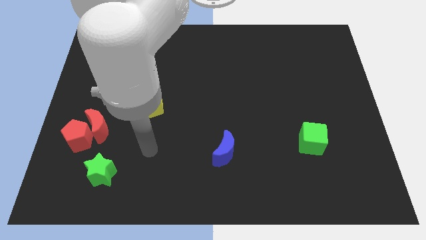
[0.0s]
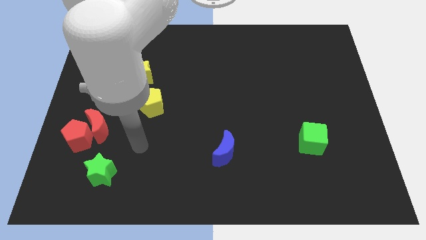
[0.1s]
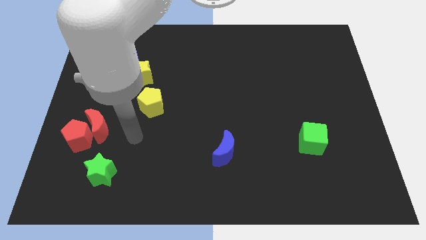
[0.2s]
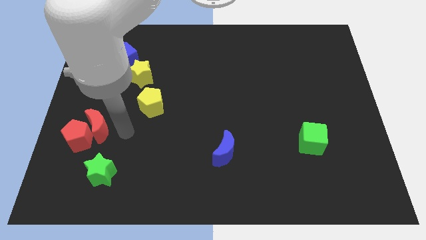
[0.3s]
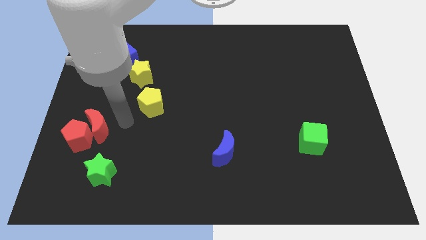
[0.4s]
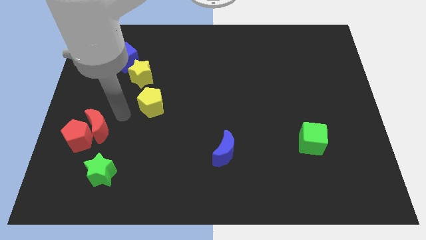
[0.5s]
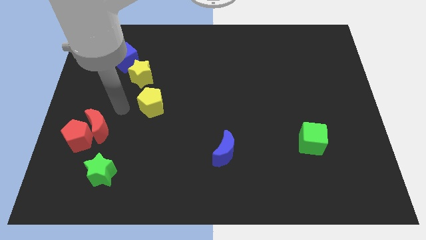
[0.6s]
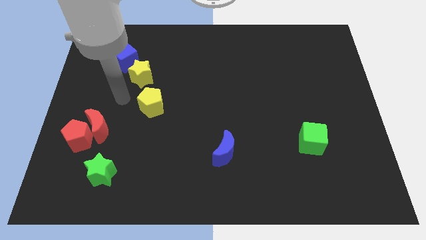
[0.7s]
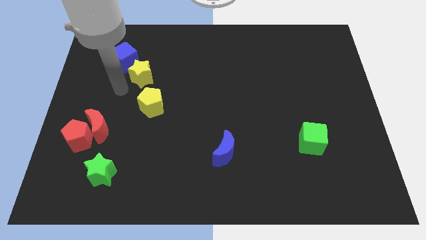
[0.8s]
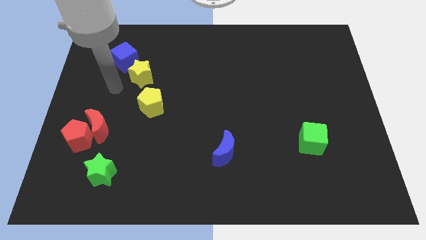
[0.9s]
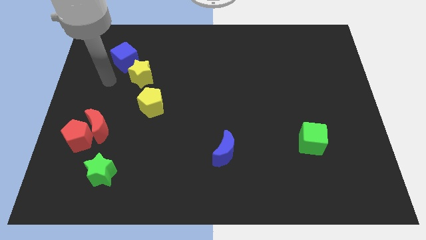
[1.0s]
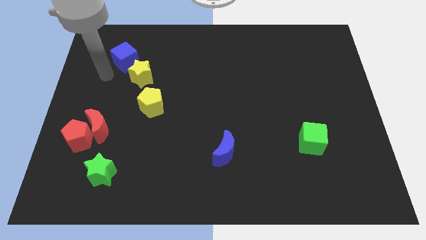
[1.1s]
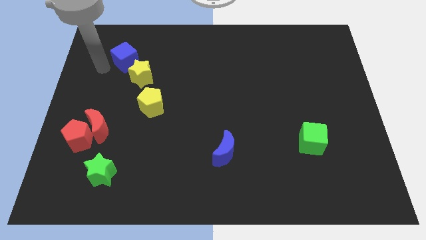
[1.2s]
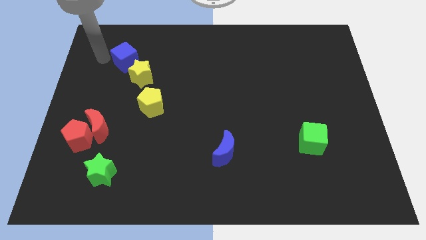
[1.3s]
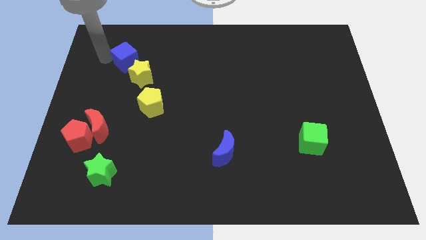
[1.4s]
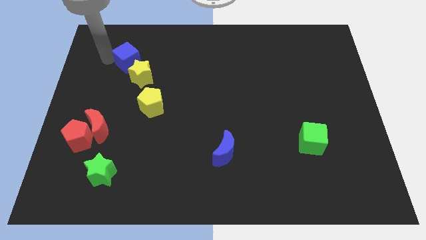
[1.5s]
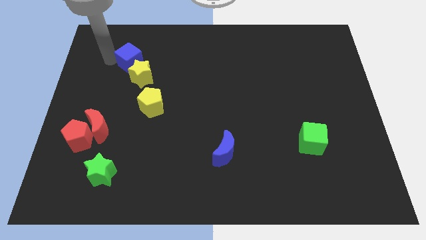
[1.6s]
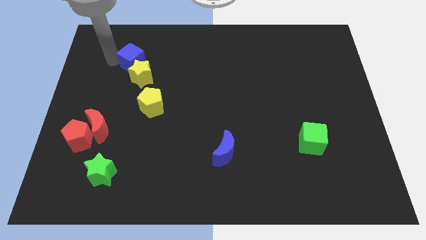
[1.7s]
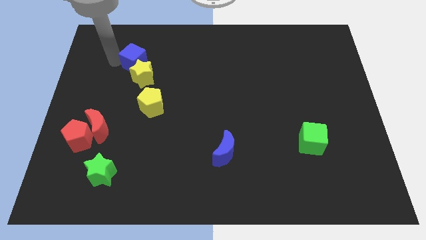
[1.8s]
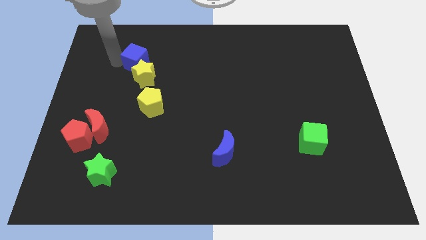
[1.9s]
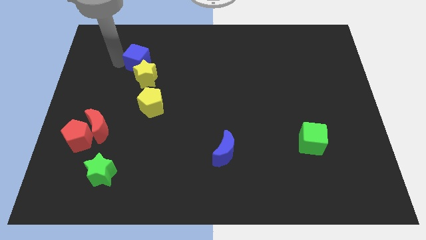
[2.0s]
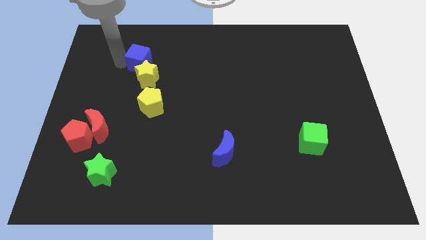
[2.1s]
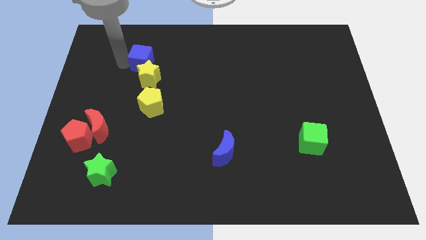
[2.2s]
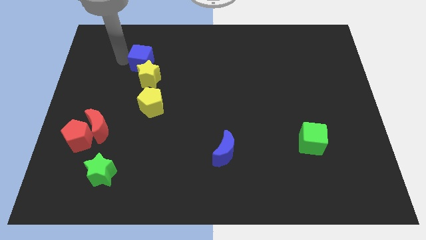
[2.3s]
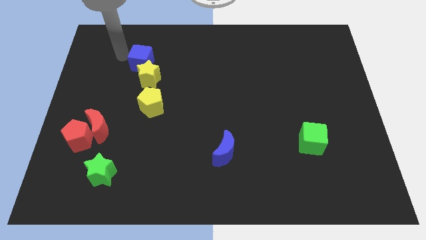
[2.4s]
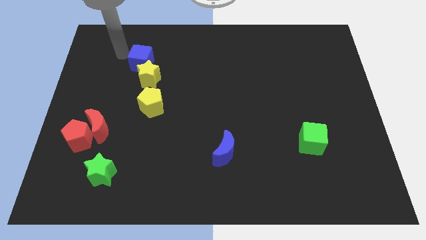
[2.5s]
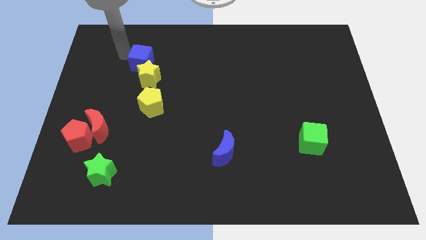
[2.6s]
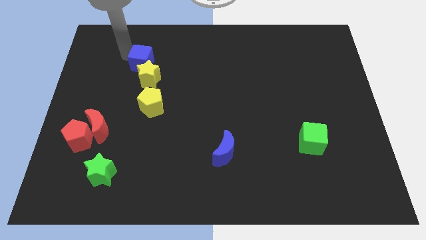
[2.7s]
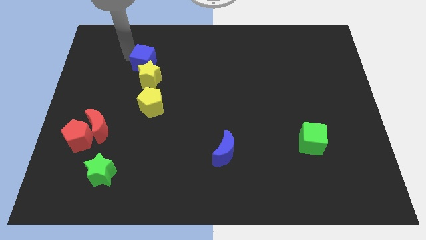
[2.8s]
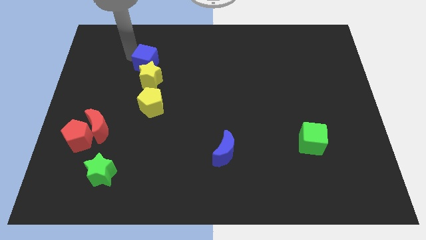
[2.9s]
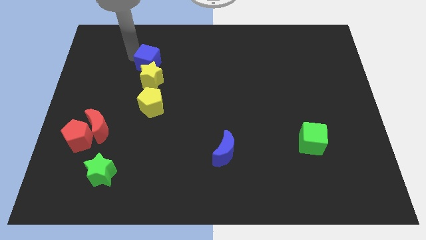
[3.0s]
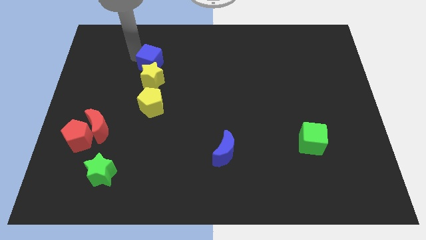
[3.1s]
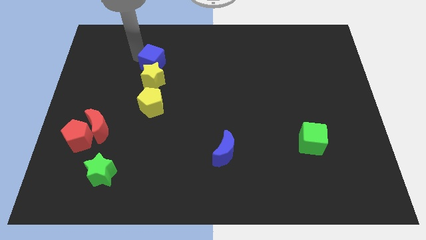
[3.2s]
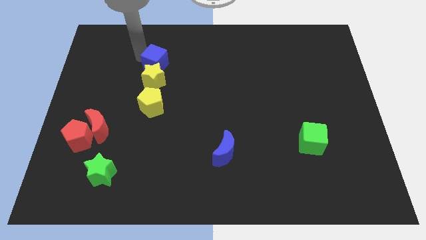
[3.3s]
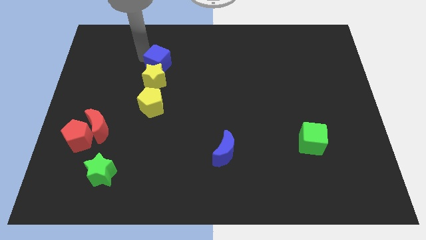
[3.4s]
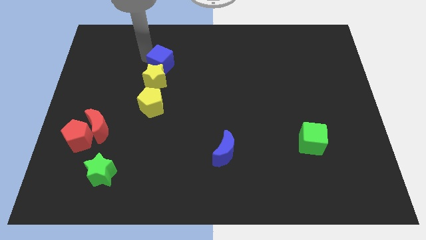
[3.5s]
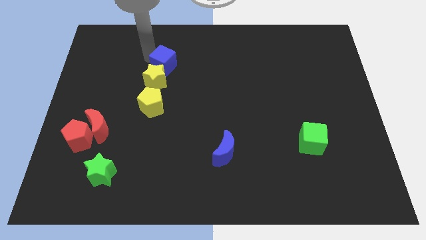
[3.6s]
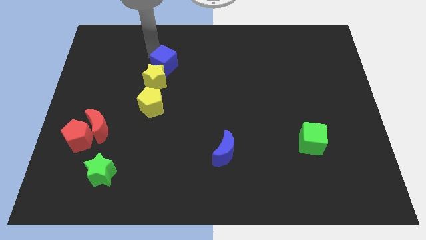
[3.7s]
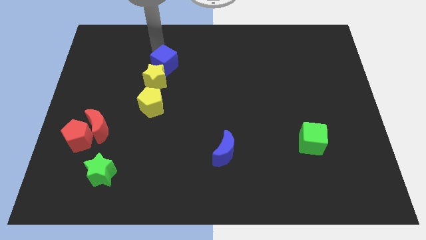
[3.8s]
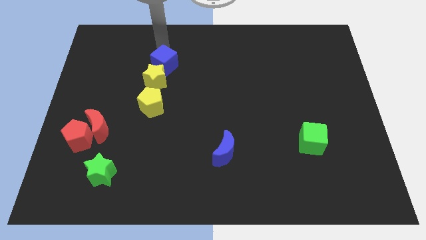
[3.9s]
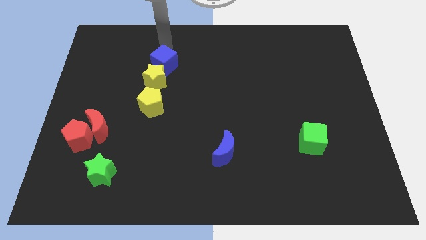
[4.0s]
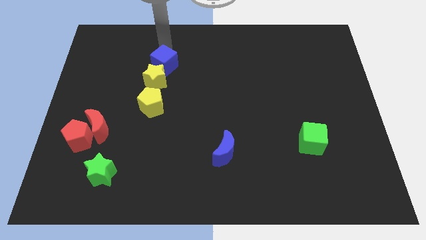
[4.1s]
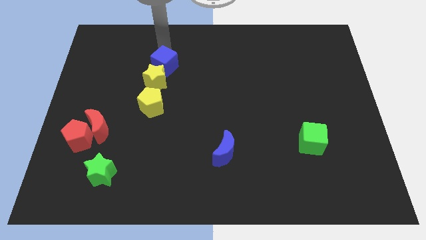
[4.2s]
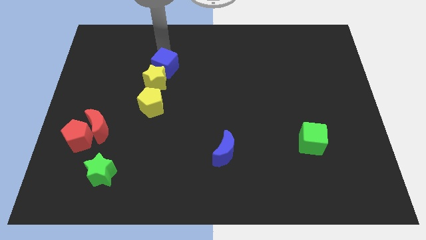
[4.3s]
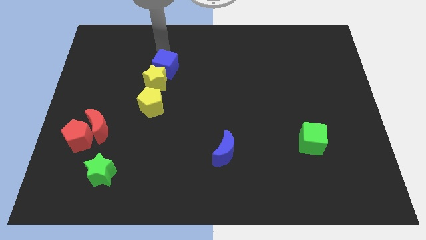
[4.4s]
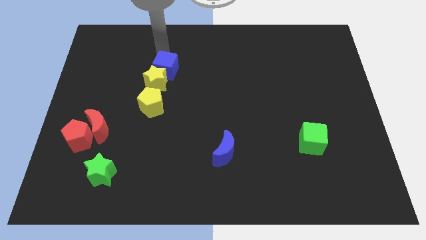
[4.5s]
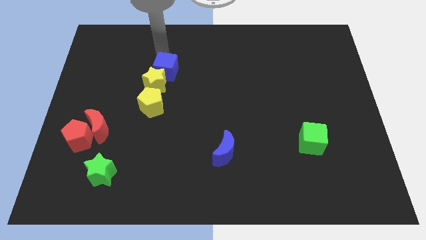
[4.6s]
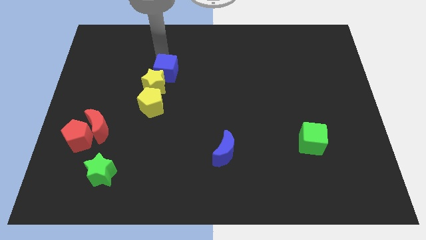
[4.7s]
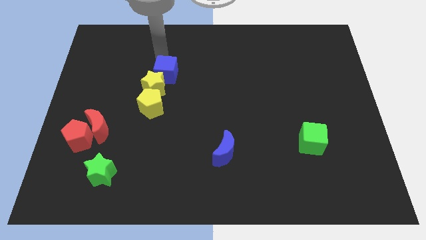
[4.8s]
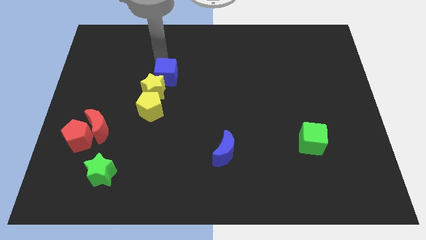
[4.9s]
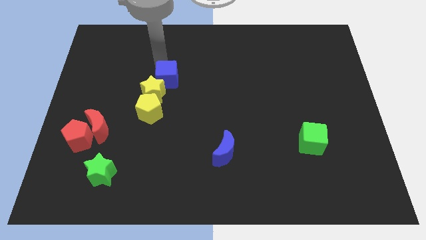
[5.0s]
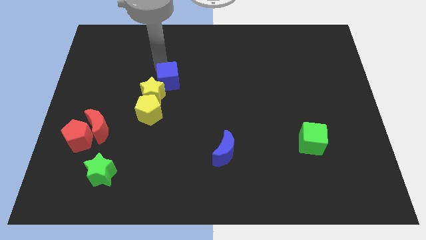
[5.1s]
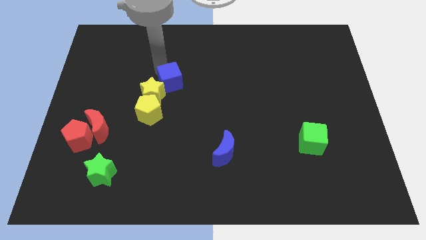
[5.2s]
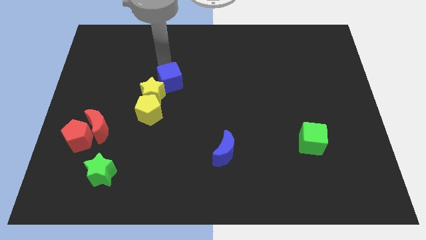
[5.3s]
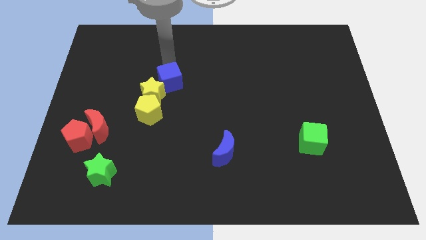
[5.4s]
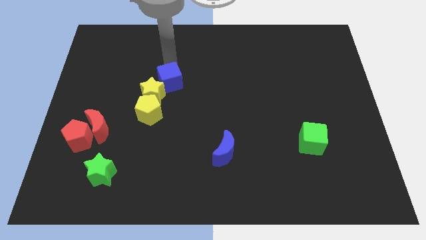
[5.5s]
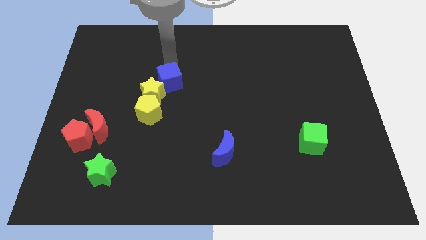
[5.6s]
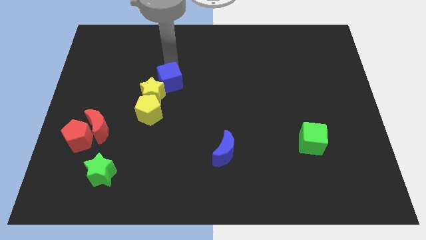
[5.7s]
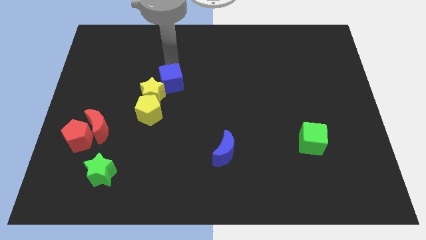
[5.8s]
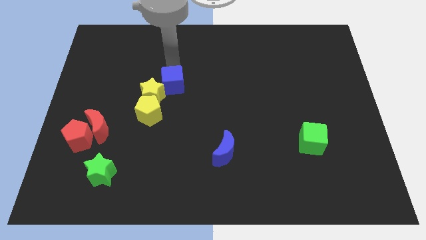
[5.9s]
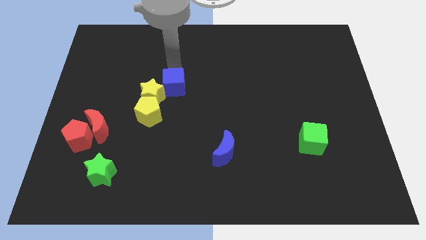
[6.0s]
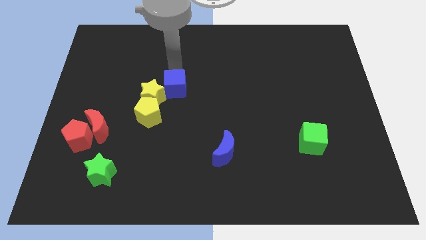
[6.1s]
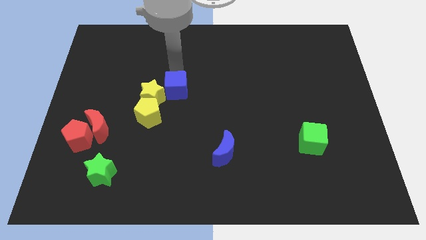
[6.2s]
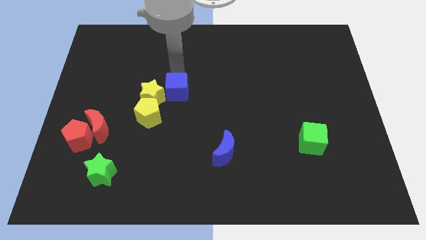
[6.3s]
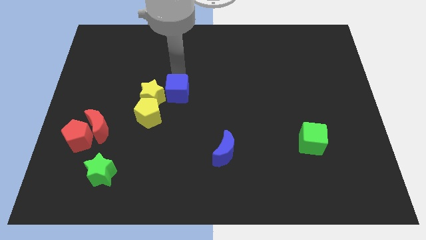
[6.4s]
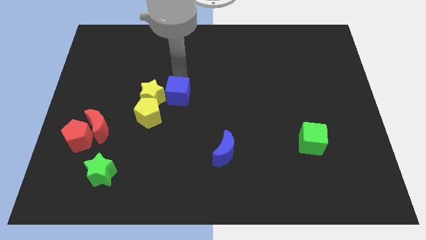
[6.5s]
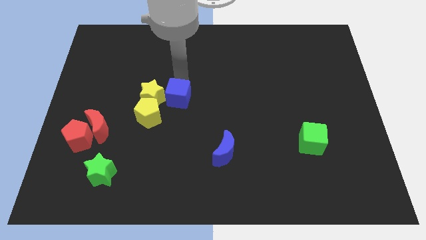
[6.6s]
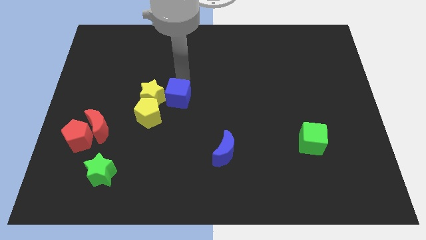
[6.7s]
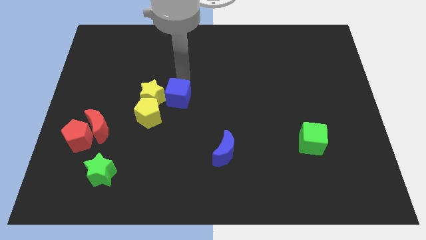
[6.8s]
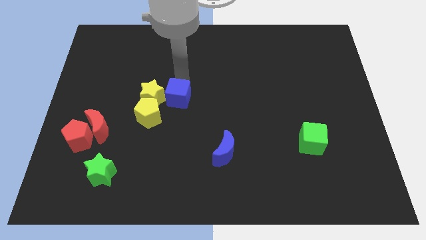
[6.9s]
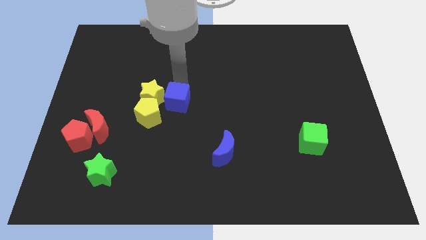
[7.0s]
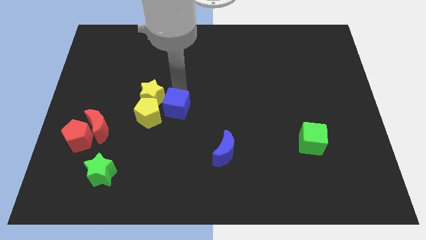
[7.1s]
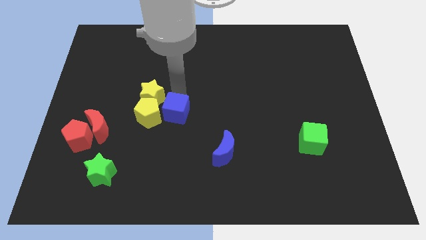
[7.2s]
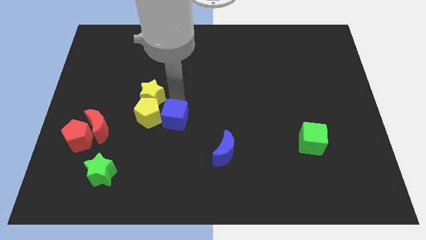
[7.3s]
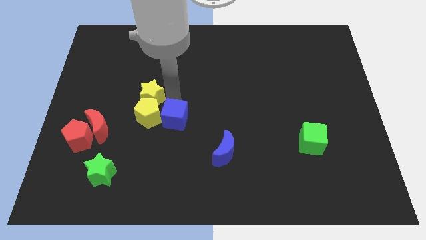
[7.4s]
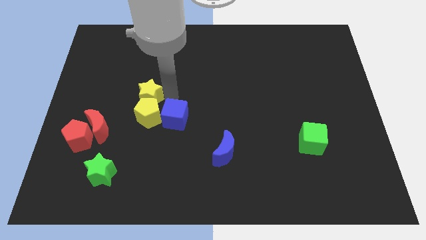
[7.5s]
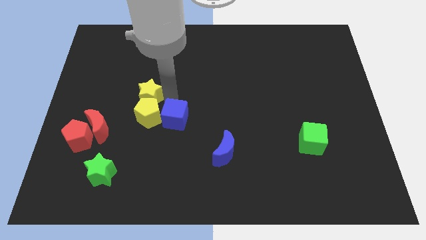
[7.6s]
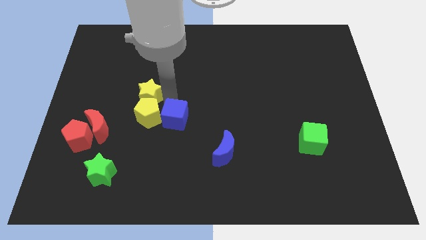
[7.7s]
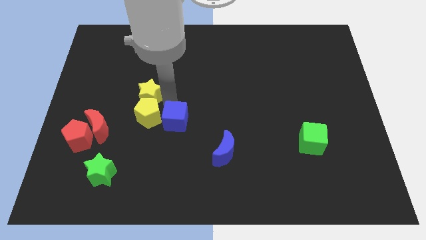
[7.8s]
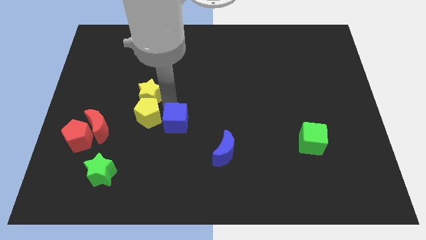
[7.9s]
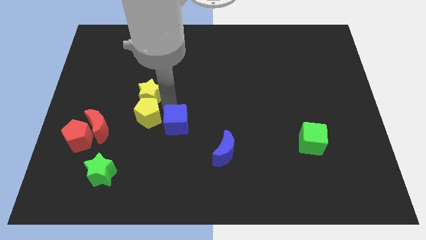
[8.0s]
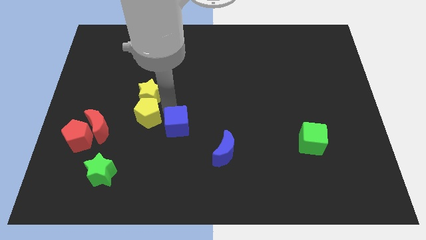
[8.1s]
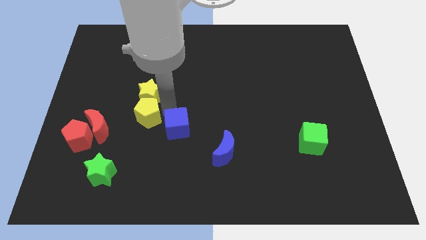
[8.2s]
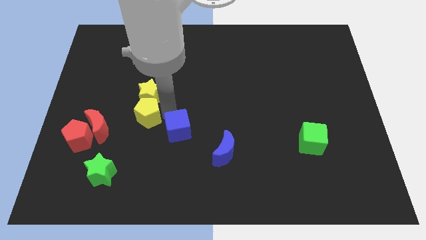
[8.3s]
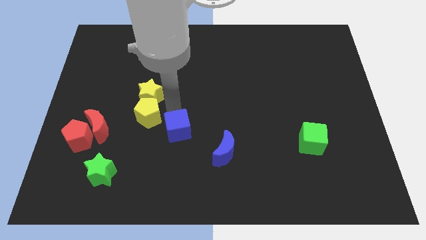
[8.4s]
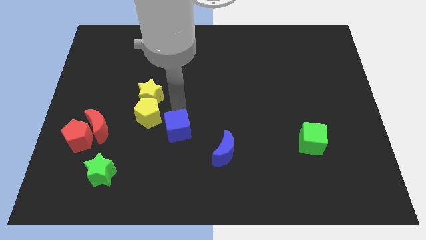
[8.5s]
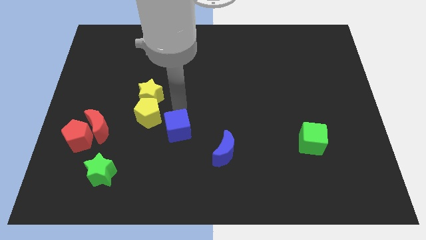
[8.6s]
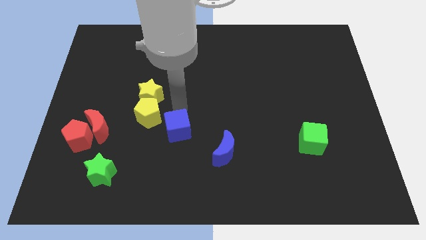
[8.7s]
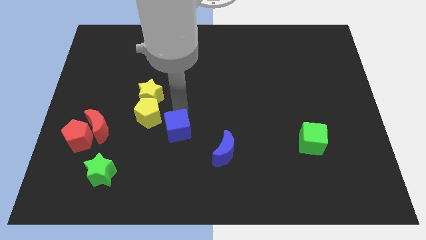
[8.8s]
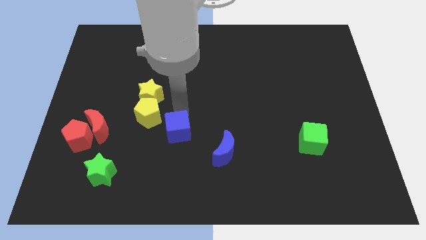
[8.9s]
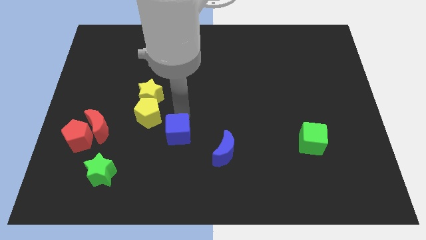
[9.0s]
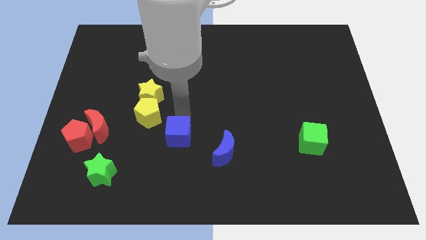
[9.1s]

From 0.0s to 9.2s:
put the blue cube just left of the blue moon
